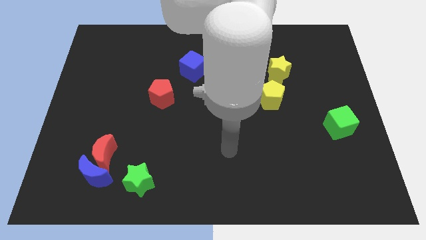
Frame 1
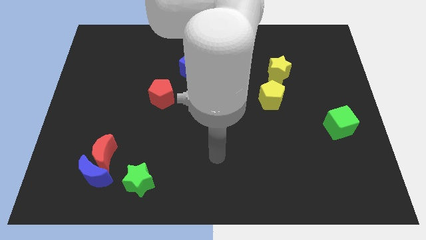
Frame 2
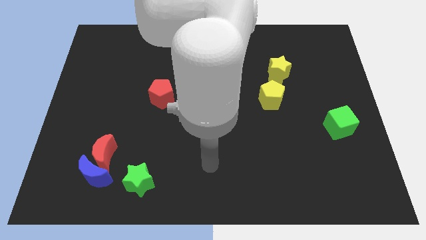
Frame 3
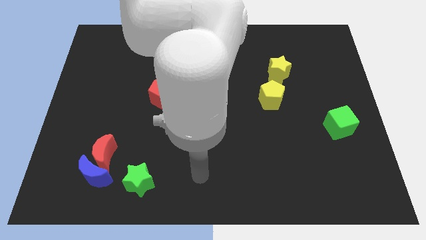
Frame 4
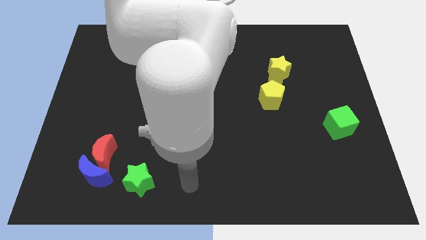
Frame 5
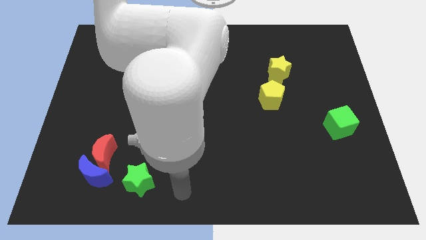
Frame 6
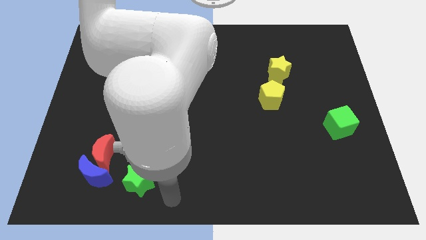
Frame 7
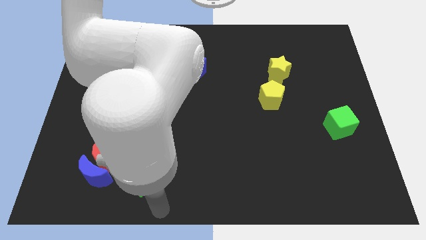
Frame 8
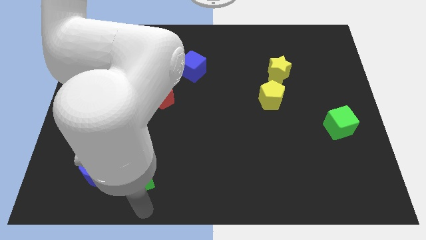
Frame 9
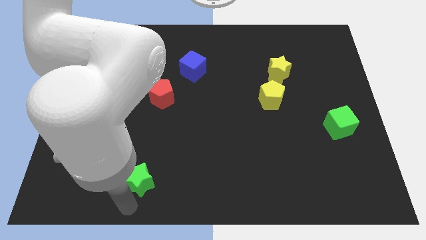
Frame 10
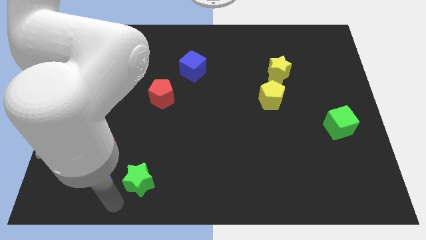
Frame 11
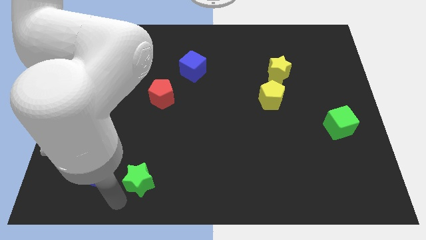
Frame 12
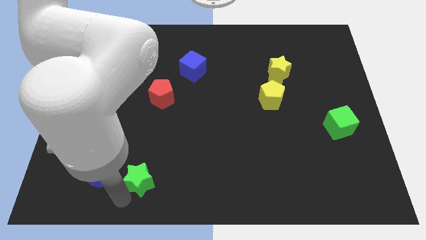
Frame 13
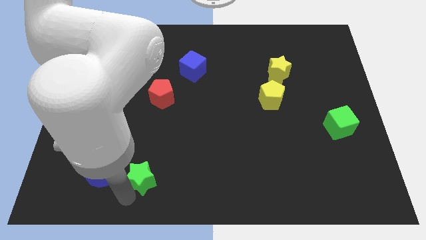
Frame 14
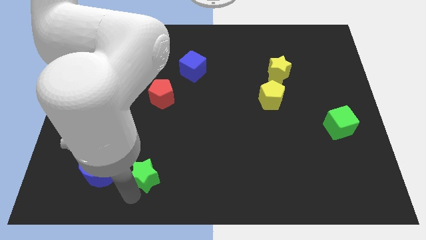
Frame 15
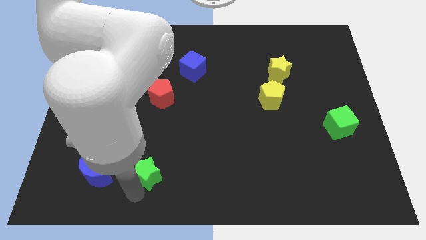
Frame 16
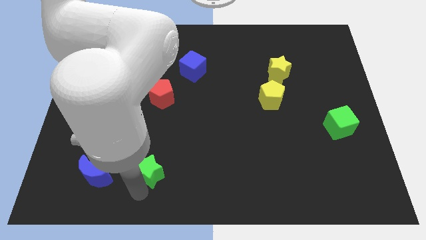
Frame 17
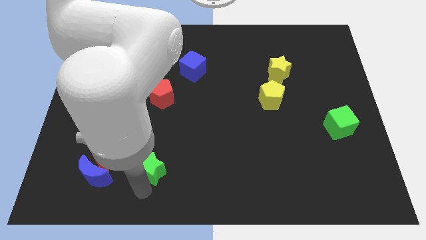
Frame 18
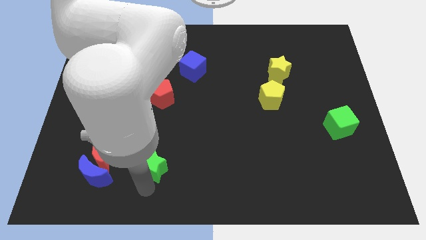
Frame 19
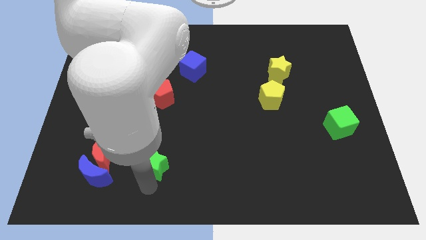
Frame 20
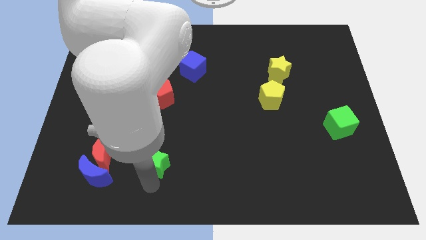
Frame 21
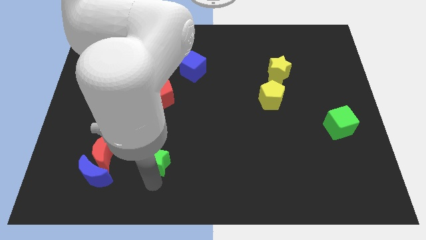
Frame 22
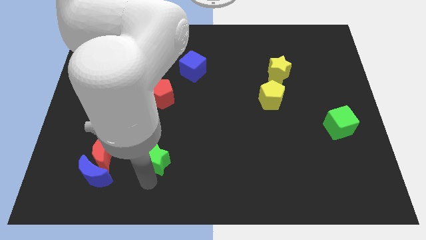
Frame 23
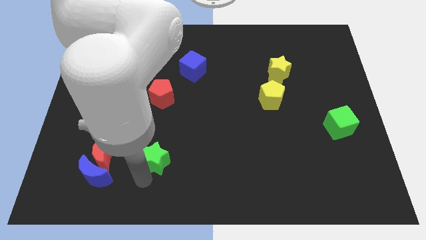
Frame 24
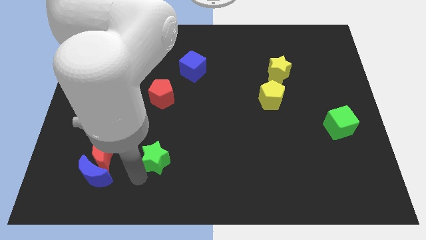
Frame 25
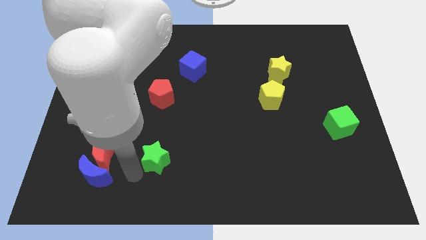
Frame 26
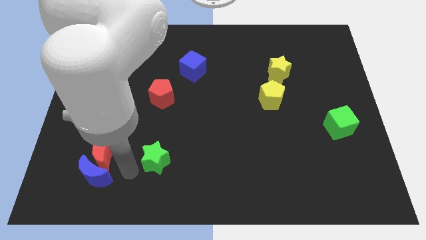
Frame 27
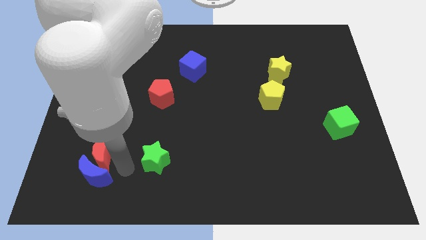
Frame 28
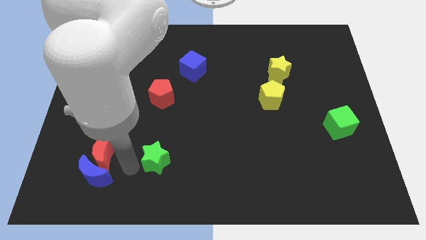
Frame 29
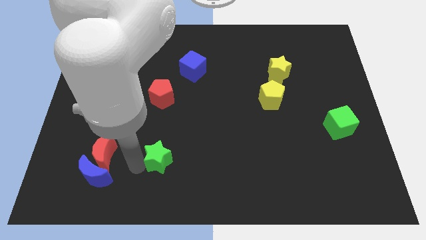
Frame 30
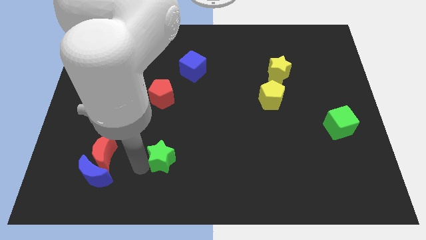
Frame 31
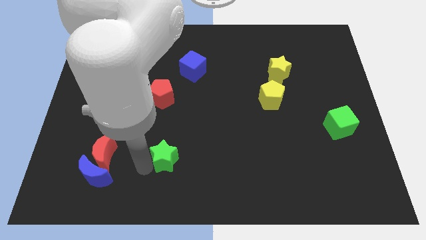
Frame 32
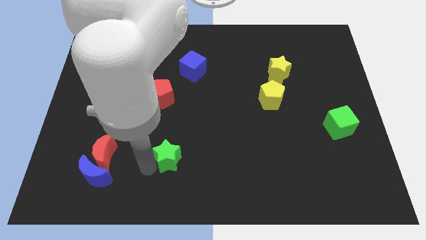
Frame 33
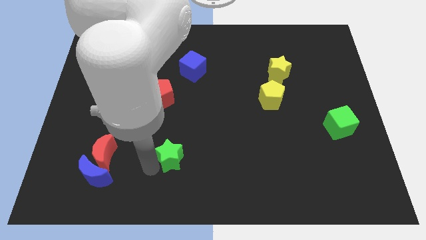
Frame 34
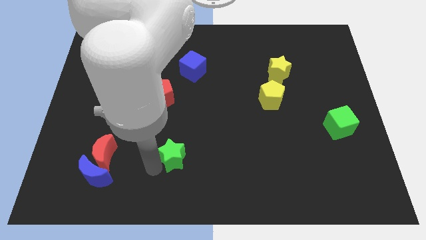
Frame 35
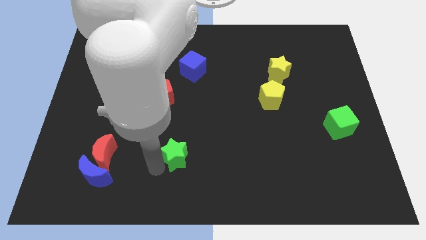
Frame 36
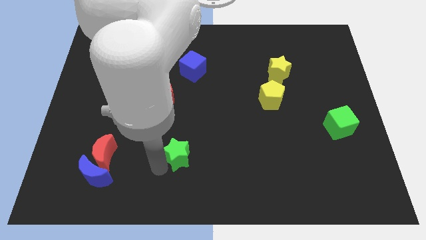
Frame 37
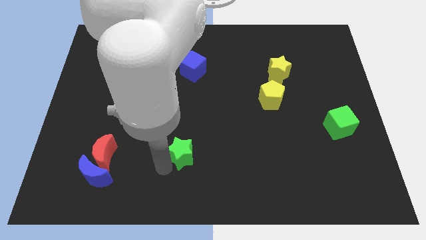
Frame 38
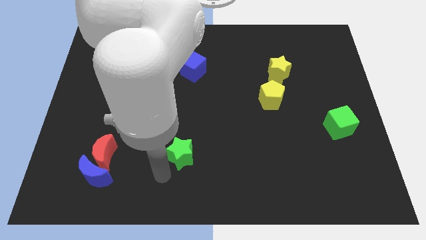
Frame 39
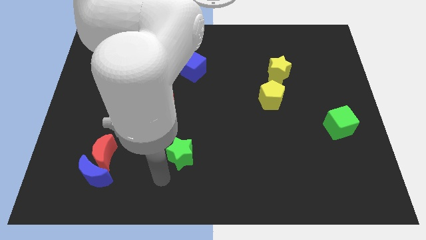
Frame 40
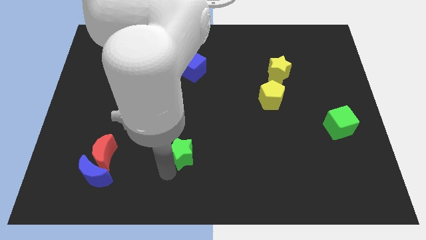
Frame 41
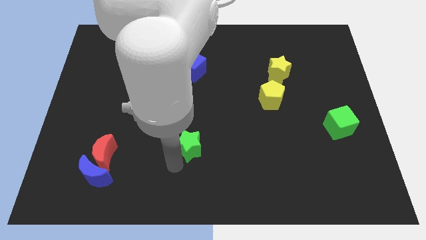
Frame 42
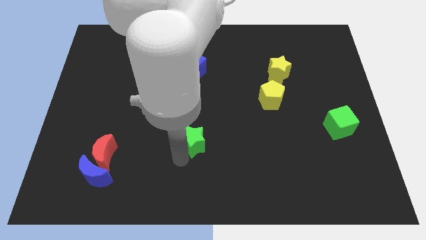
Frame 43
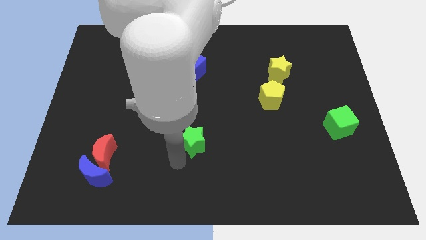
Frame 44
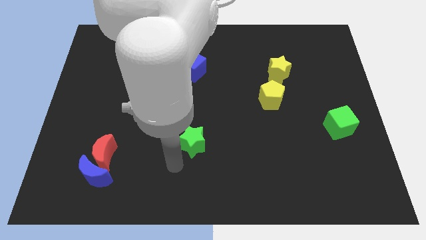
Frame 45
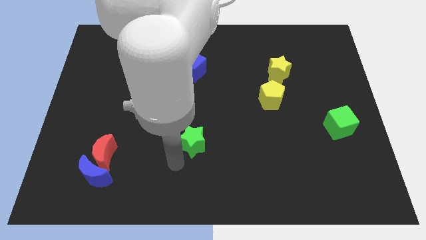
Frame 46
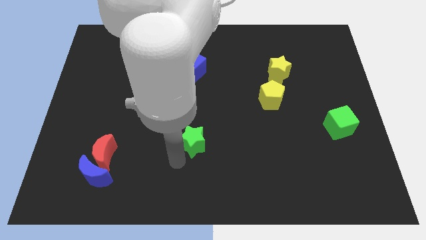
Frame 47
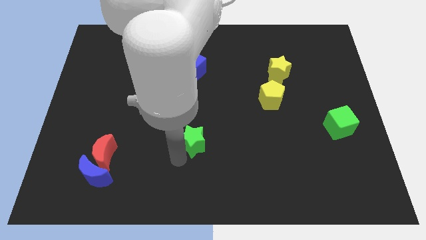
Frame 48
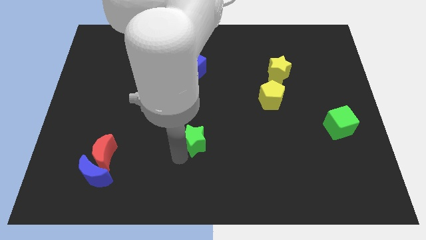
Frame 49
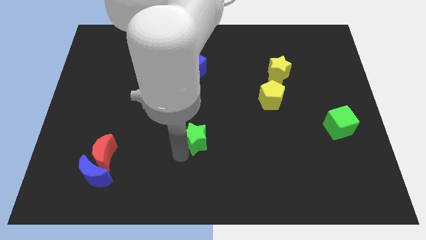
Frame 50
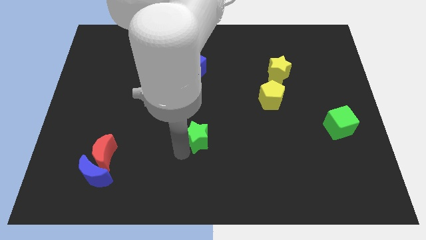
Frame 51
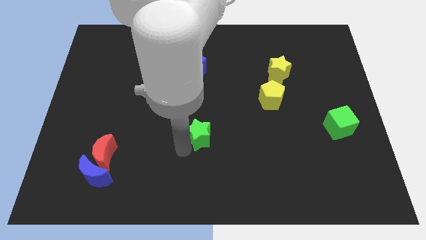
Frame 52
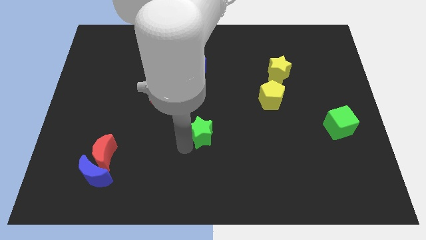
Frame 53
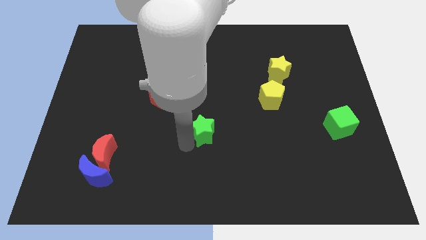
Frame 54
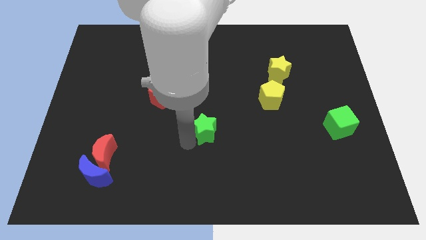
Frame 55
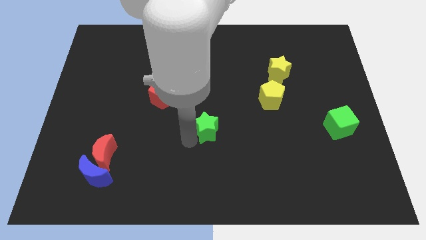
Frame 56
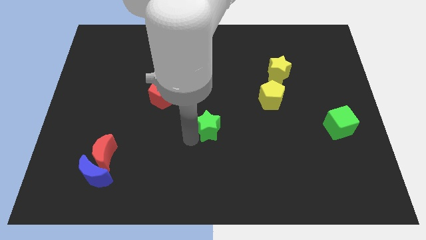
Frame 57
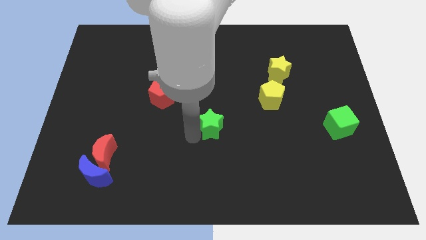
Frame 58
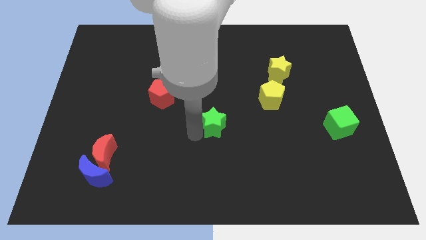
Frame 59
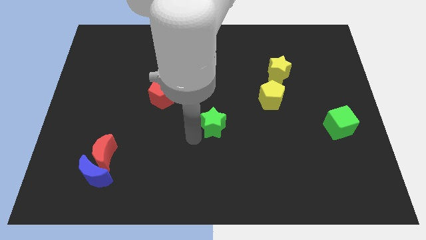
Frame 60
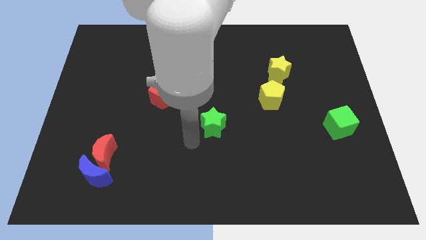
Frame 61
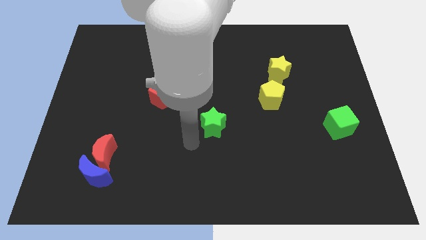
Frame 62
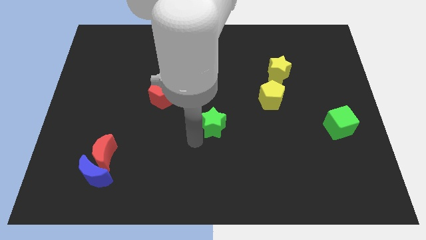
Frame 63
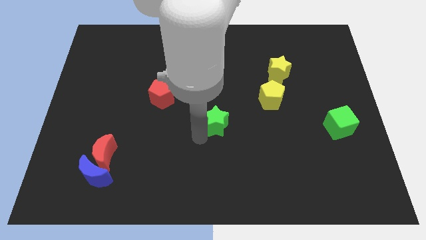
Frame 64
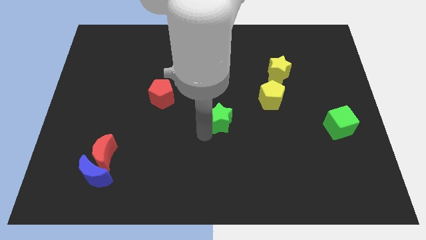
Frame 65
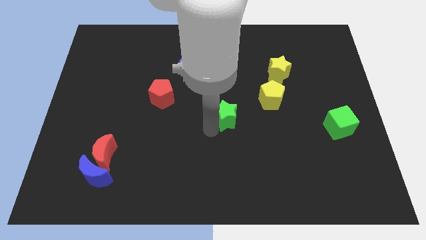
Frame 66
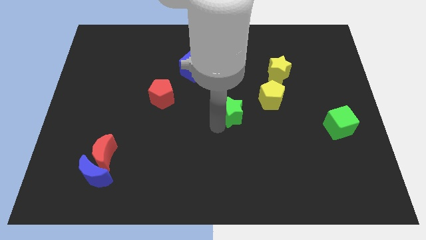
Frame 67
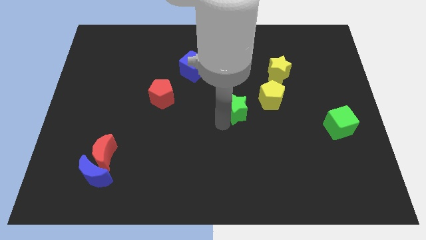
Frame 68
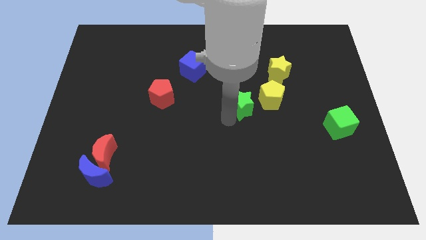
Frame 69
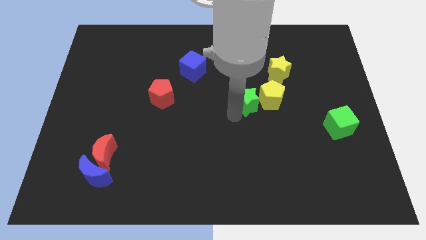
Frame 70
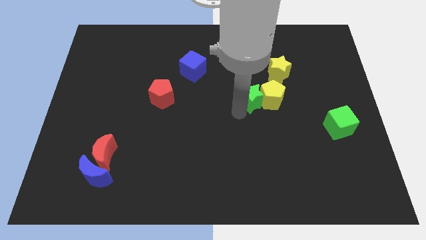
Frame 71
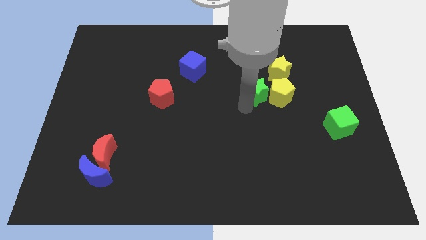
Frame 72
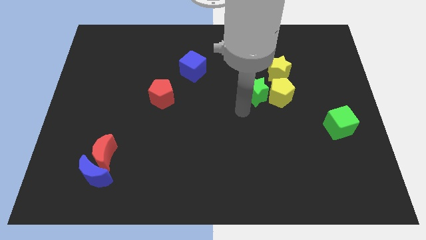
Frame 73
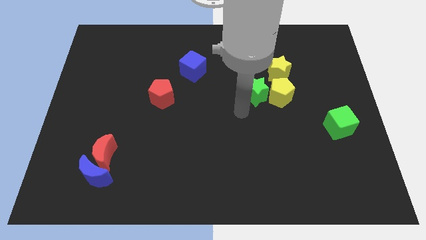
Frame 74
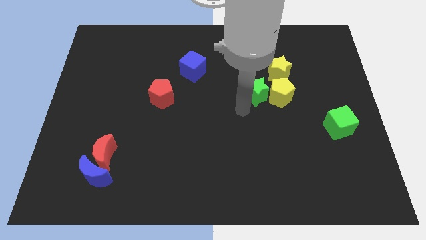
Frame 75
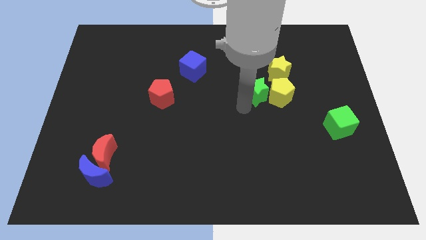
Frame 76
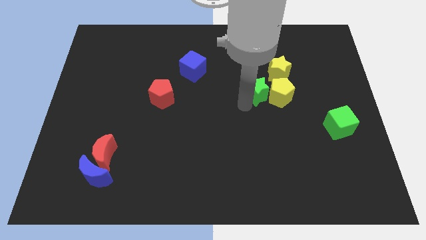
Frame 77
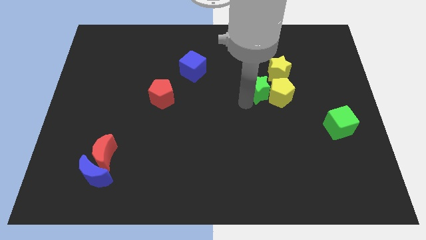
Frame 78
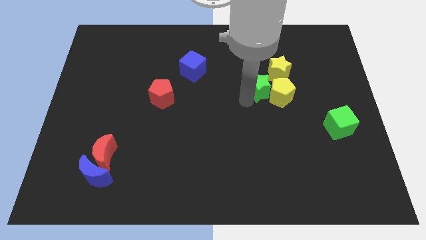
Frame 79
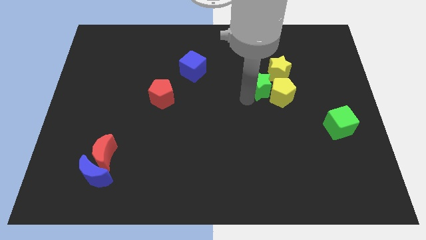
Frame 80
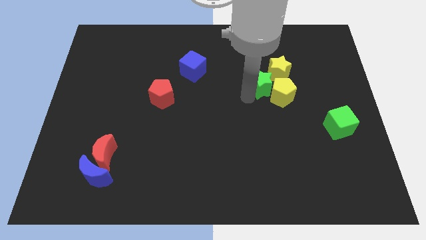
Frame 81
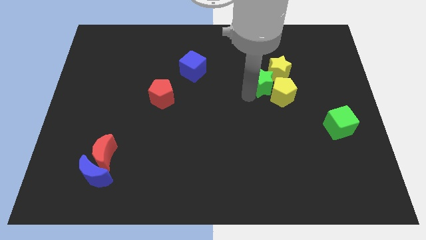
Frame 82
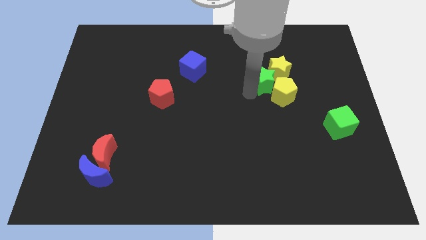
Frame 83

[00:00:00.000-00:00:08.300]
put the green star next to the yellow star
